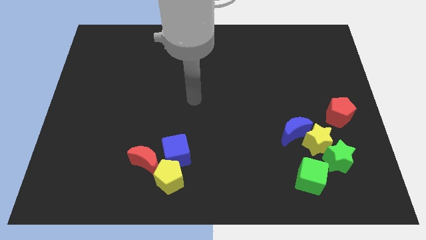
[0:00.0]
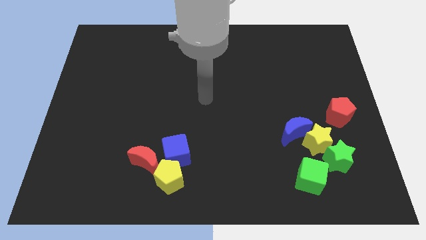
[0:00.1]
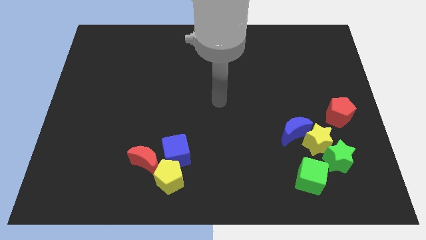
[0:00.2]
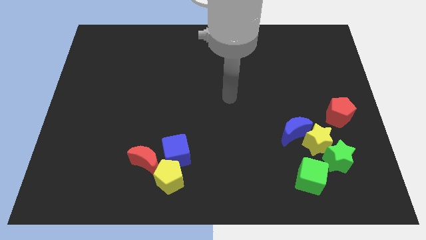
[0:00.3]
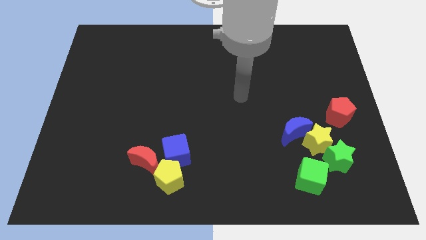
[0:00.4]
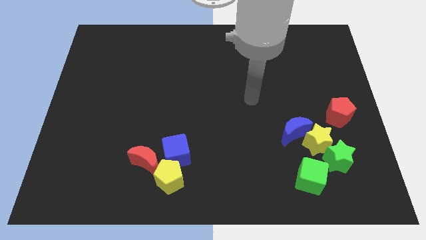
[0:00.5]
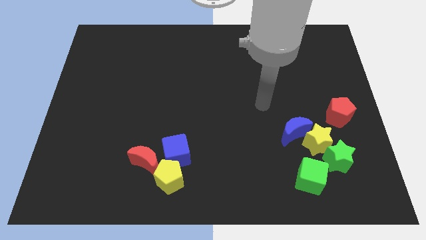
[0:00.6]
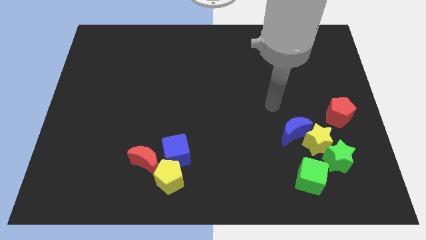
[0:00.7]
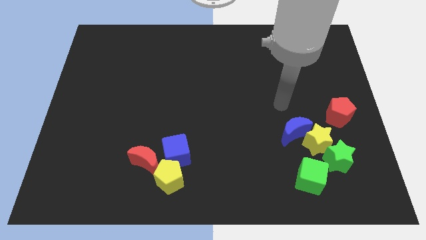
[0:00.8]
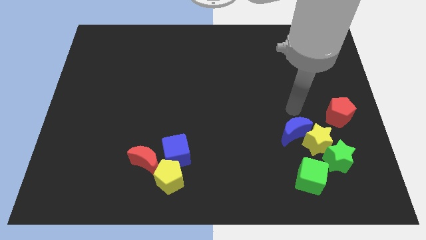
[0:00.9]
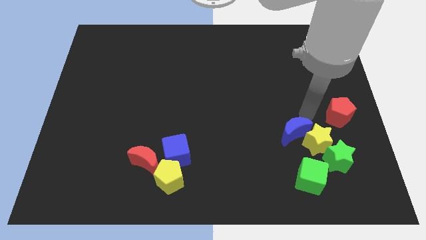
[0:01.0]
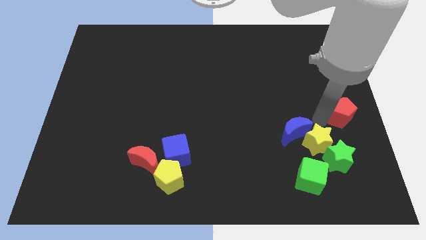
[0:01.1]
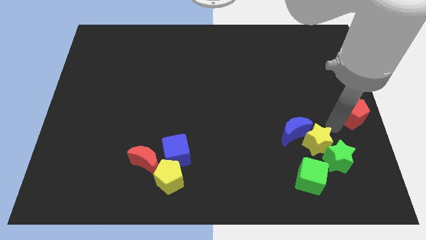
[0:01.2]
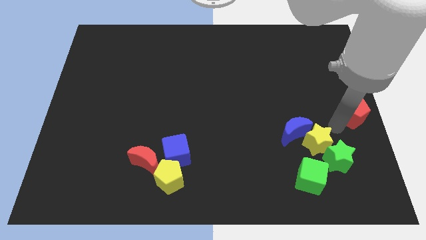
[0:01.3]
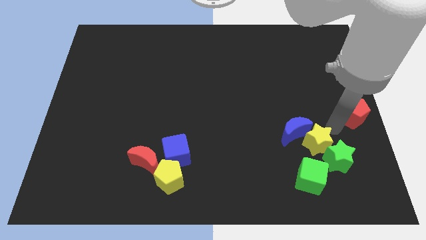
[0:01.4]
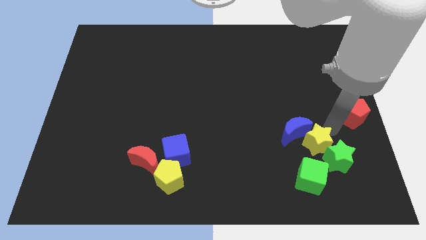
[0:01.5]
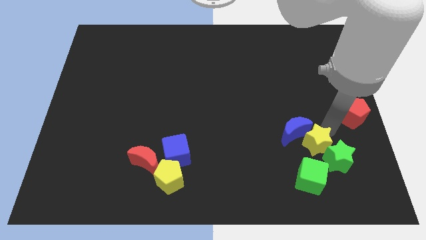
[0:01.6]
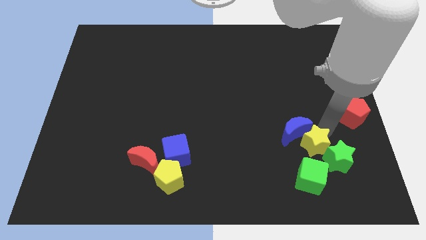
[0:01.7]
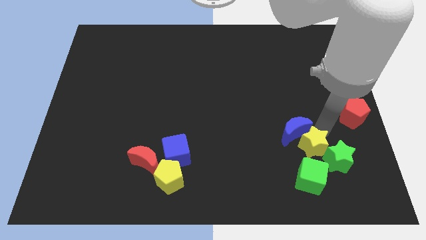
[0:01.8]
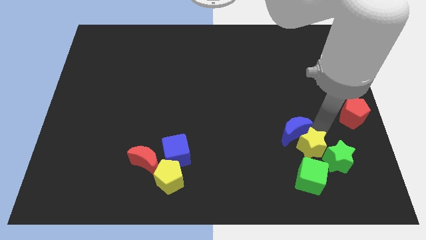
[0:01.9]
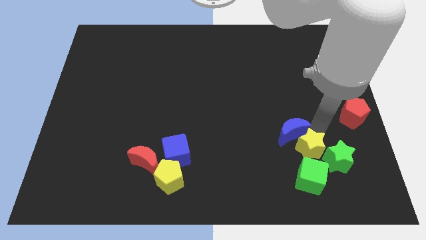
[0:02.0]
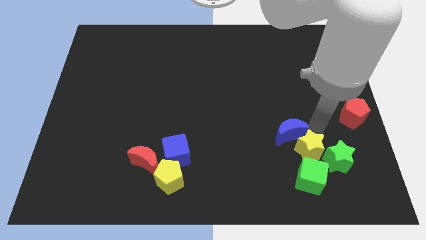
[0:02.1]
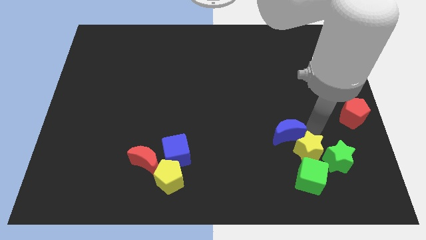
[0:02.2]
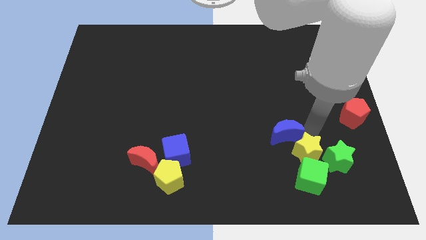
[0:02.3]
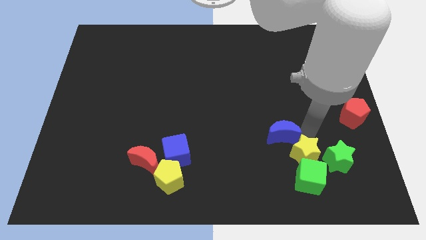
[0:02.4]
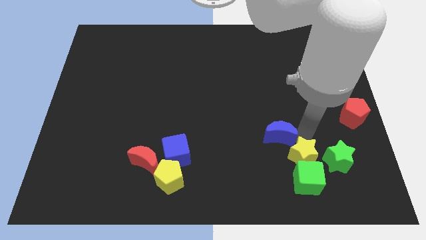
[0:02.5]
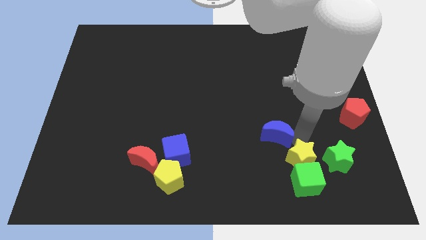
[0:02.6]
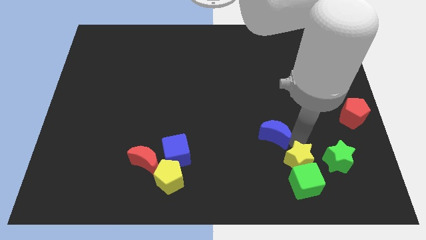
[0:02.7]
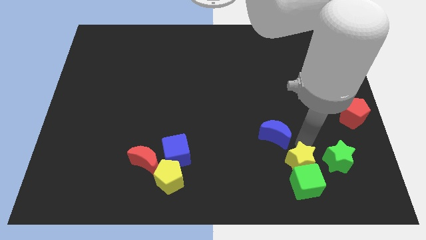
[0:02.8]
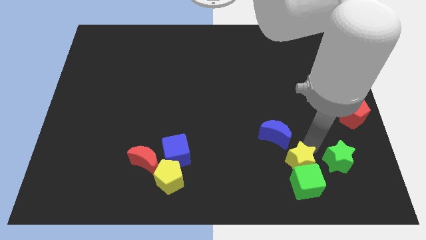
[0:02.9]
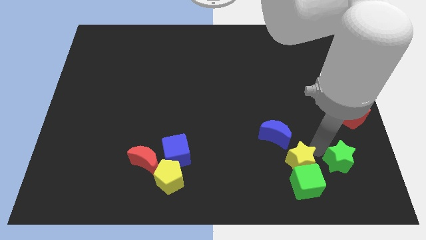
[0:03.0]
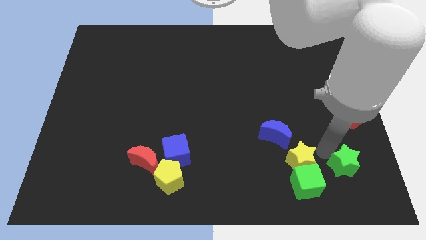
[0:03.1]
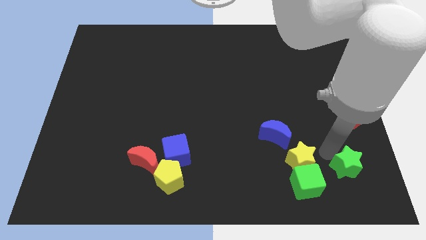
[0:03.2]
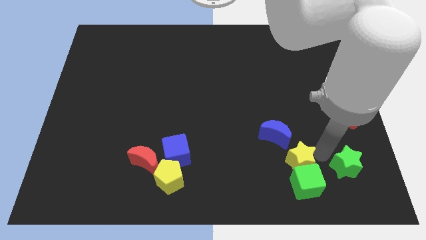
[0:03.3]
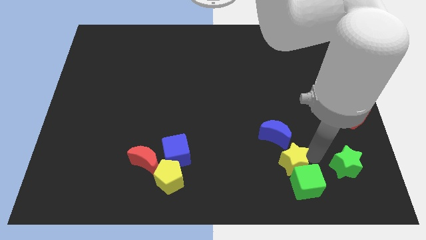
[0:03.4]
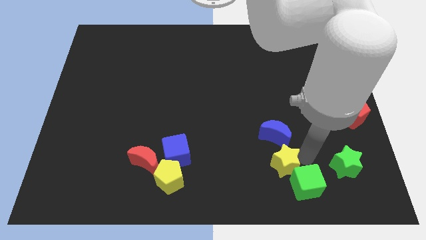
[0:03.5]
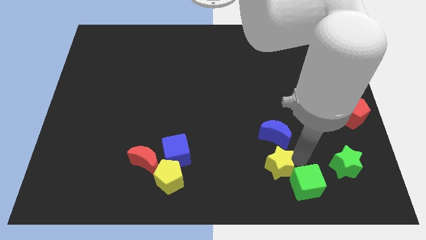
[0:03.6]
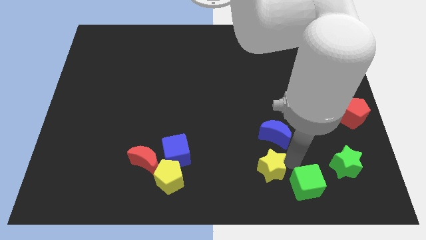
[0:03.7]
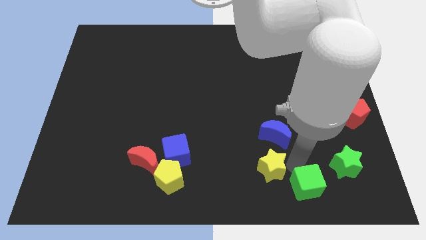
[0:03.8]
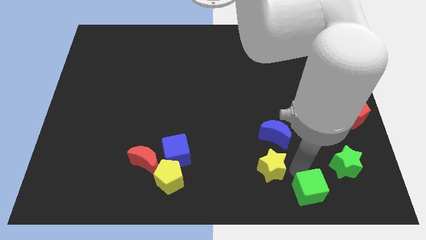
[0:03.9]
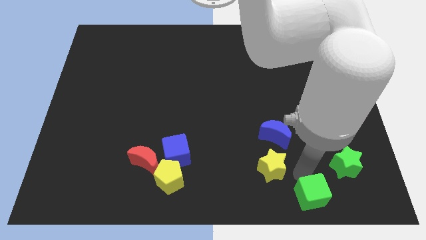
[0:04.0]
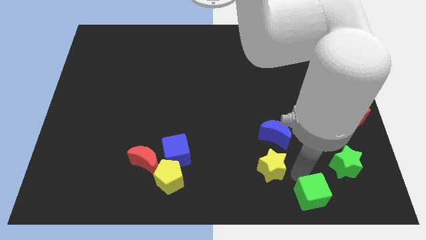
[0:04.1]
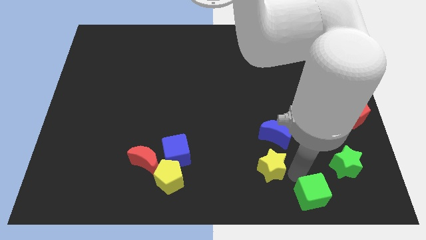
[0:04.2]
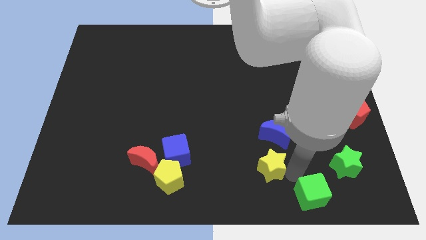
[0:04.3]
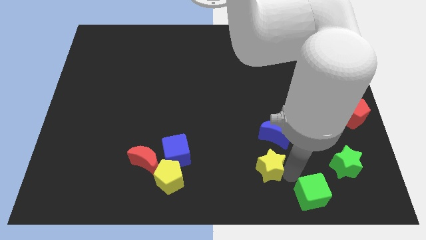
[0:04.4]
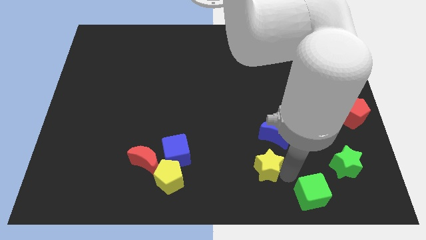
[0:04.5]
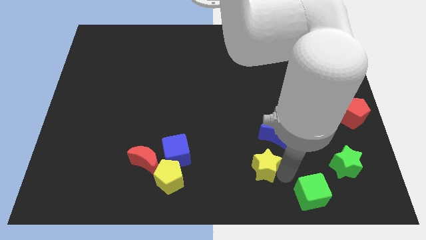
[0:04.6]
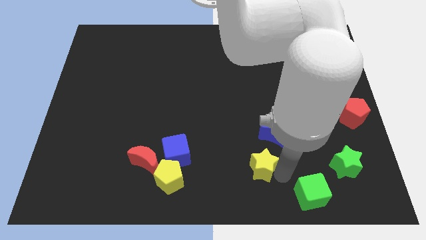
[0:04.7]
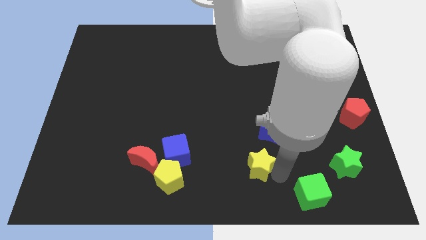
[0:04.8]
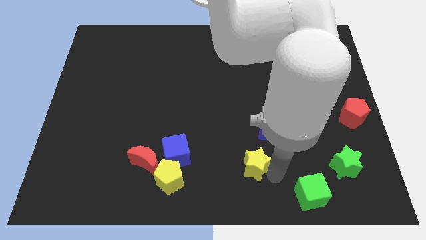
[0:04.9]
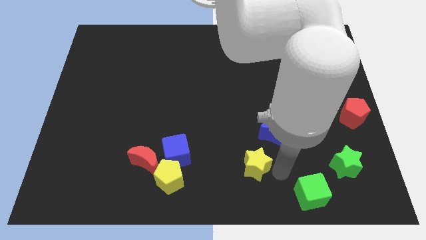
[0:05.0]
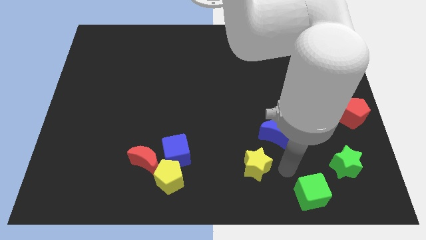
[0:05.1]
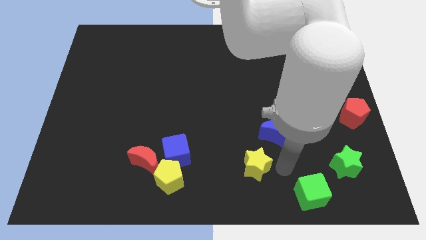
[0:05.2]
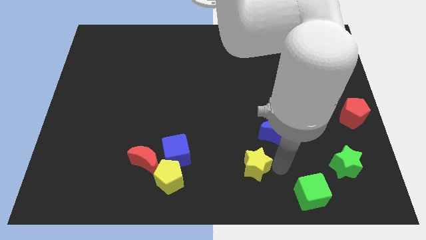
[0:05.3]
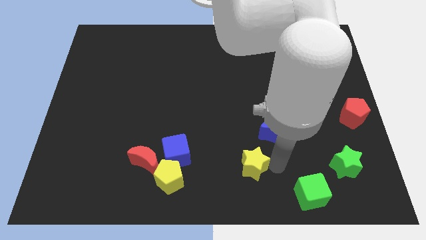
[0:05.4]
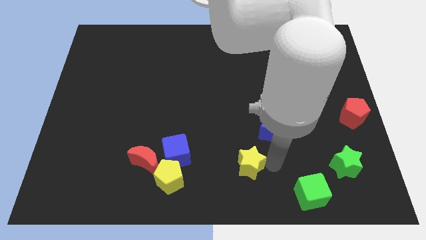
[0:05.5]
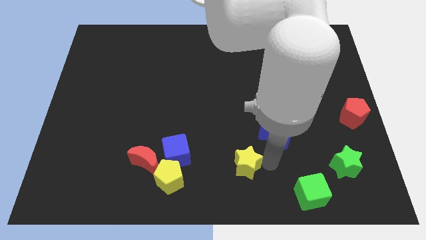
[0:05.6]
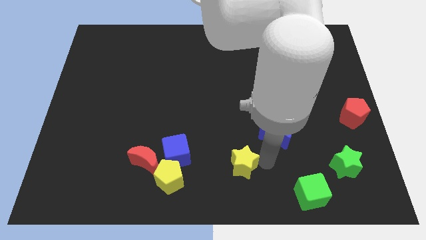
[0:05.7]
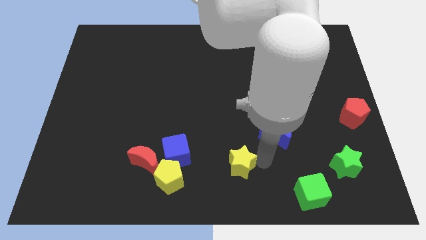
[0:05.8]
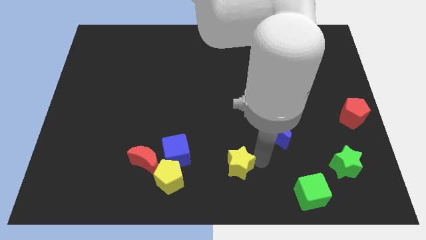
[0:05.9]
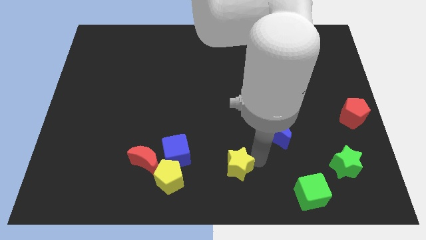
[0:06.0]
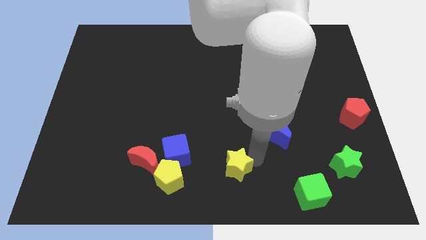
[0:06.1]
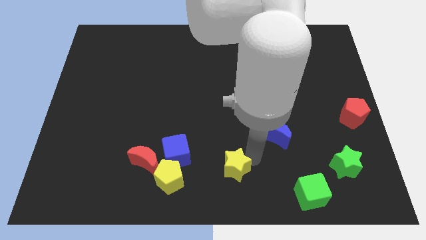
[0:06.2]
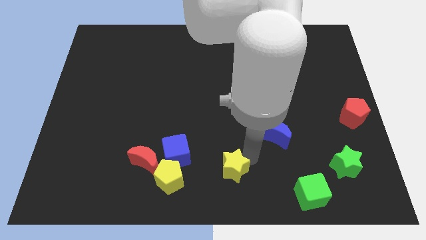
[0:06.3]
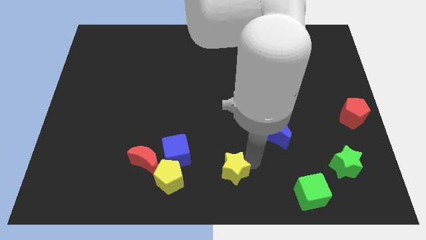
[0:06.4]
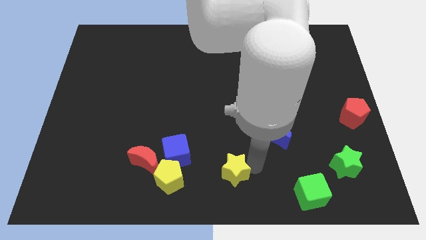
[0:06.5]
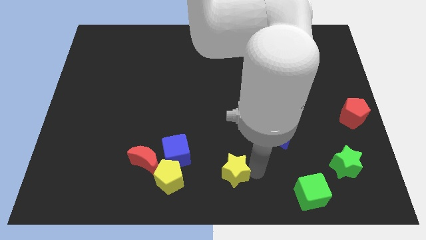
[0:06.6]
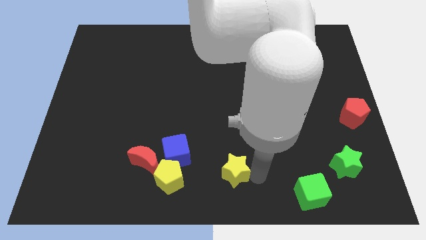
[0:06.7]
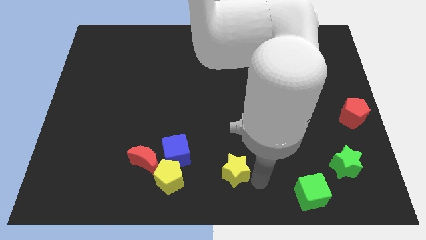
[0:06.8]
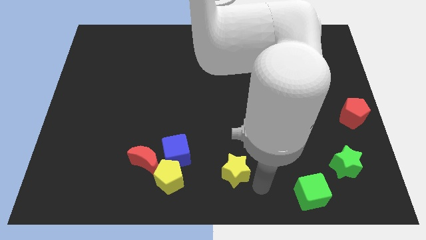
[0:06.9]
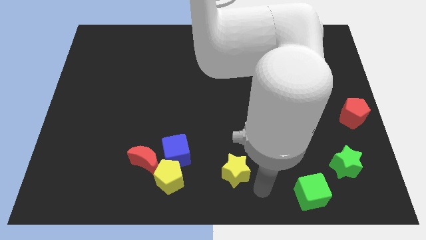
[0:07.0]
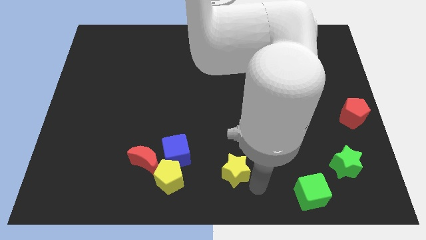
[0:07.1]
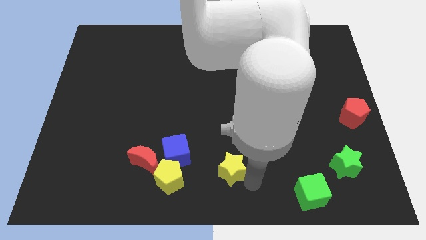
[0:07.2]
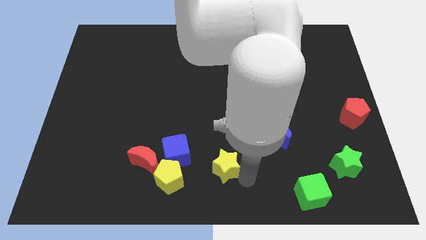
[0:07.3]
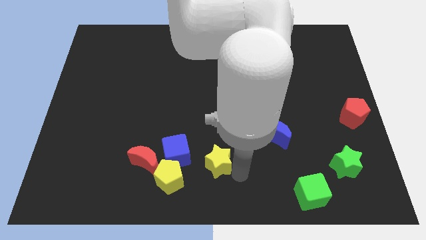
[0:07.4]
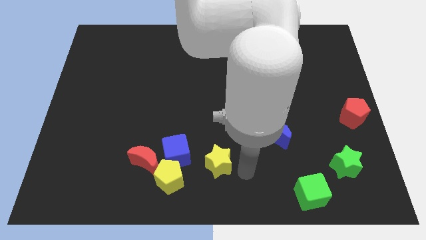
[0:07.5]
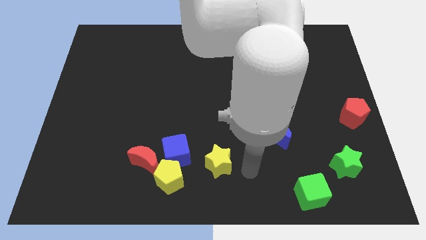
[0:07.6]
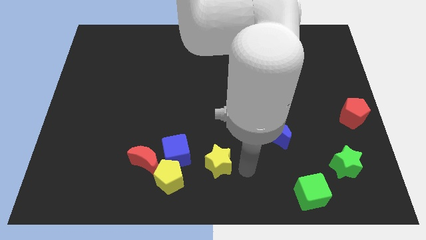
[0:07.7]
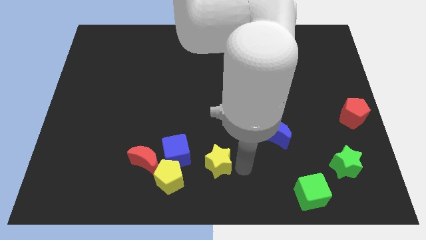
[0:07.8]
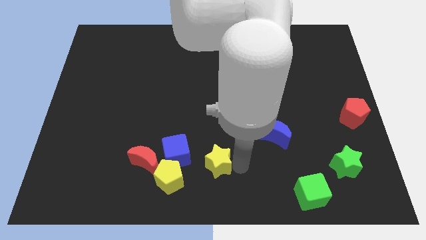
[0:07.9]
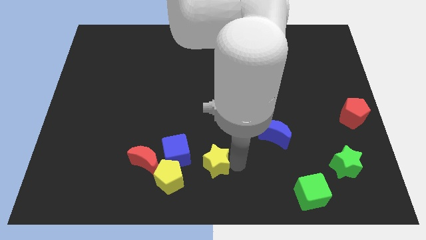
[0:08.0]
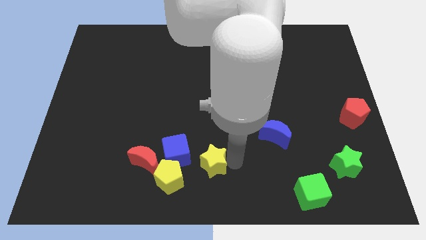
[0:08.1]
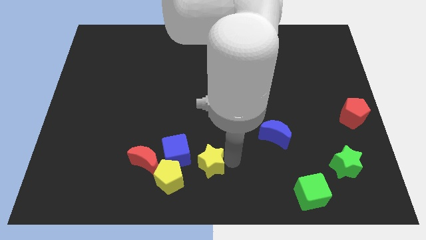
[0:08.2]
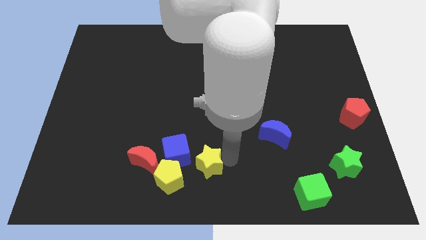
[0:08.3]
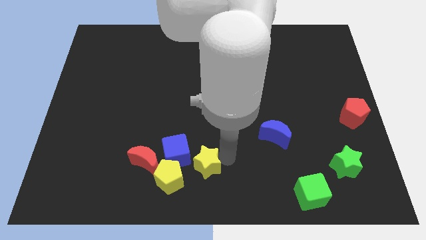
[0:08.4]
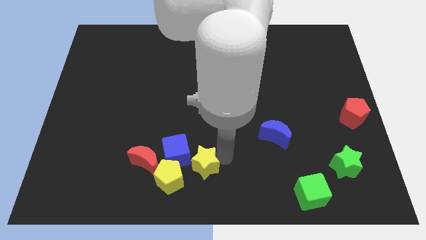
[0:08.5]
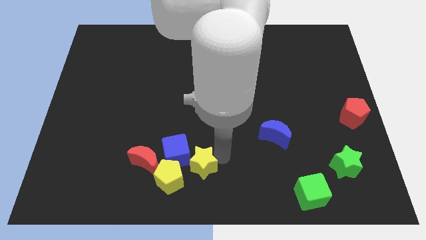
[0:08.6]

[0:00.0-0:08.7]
push the yellow star close to the blue cube
